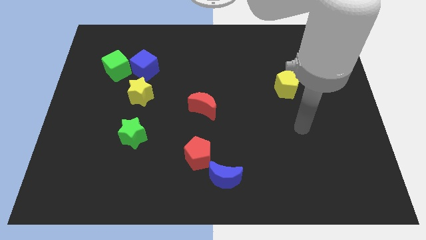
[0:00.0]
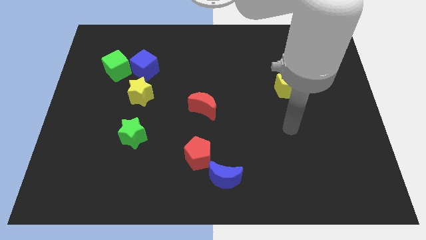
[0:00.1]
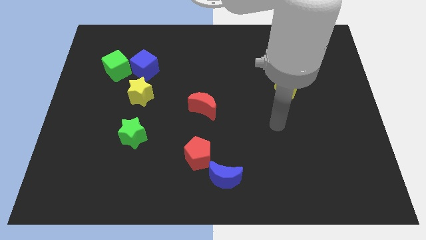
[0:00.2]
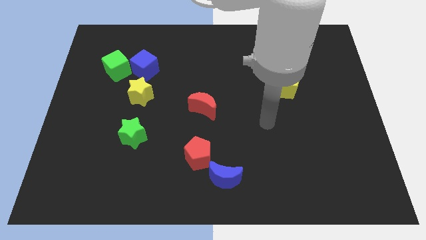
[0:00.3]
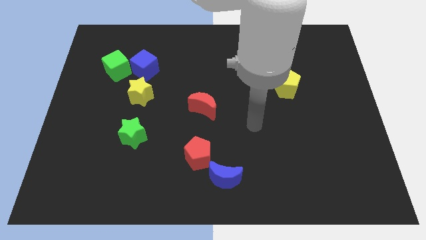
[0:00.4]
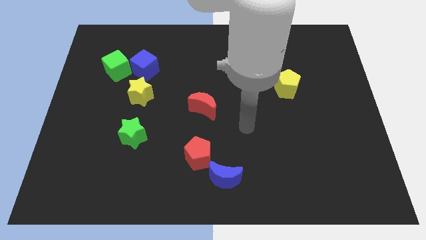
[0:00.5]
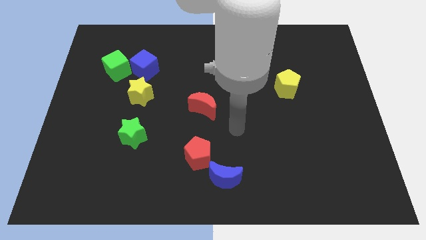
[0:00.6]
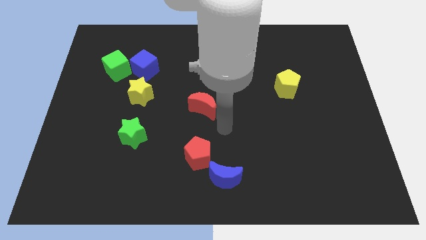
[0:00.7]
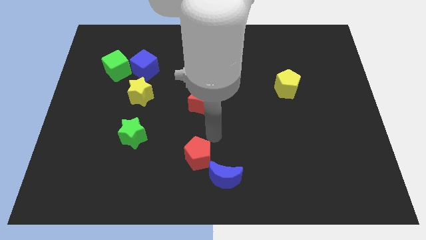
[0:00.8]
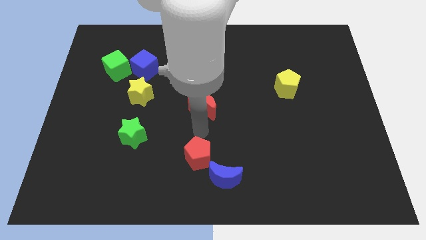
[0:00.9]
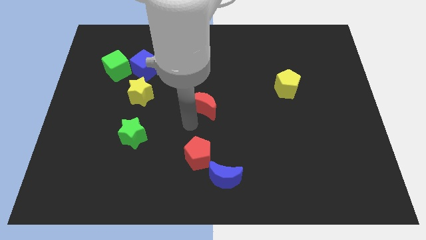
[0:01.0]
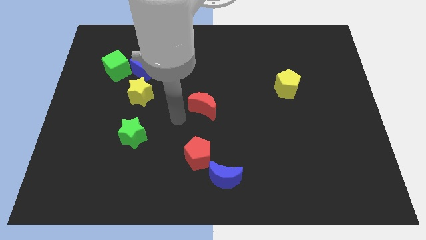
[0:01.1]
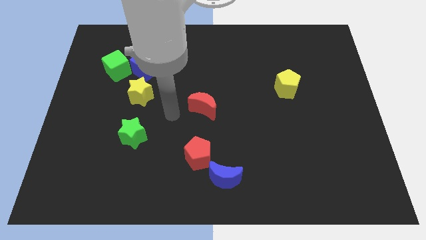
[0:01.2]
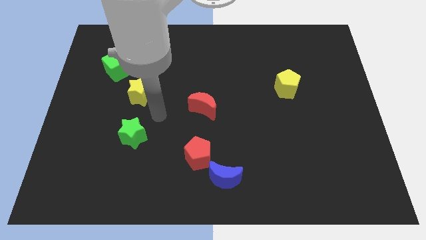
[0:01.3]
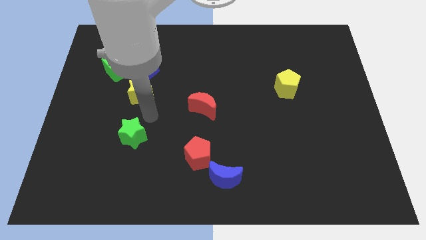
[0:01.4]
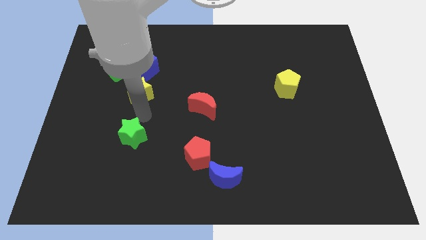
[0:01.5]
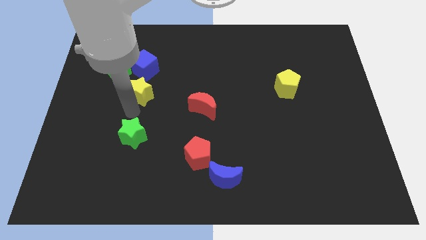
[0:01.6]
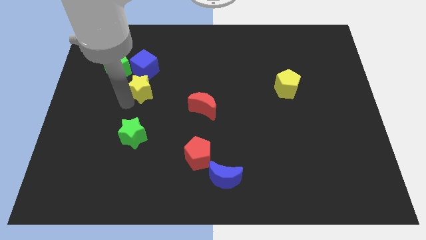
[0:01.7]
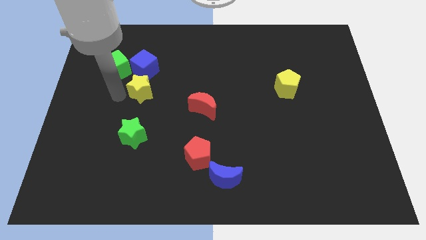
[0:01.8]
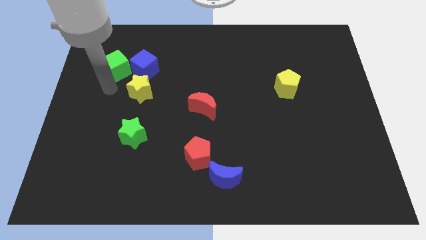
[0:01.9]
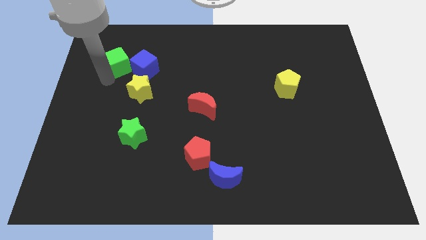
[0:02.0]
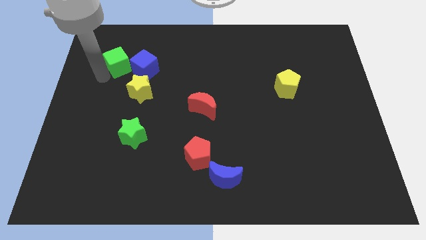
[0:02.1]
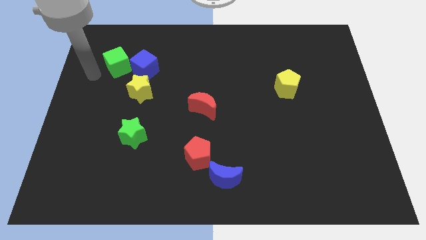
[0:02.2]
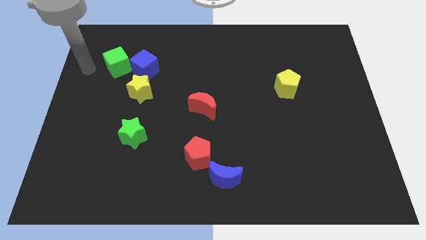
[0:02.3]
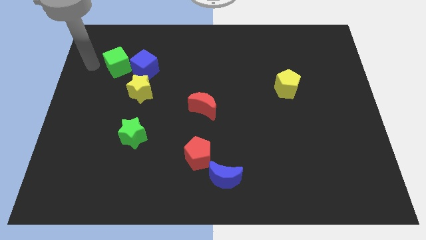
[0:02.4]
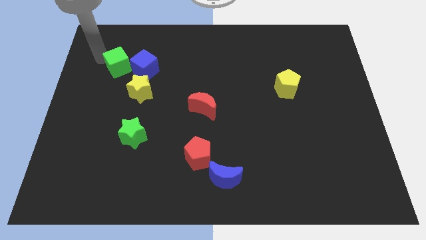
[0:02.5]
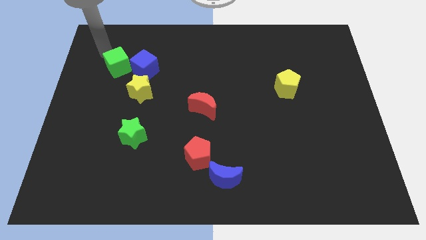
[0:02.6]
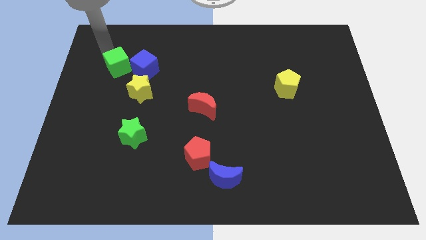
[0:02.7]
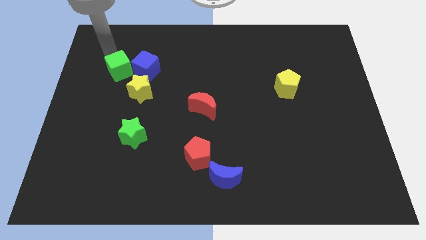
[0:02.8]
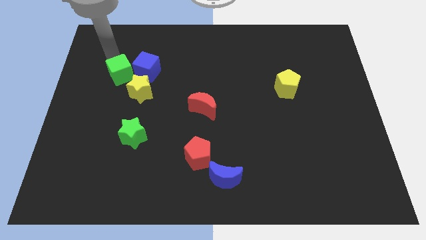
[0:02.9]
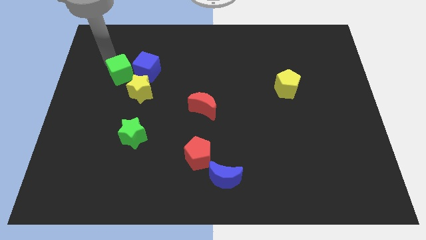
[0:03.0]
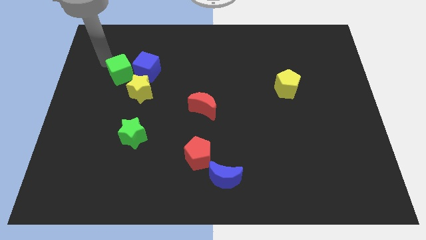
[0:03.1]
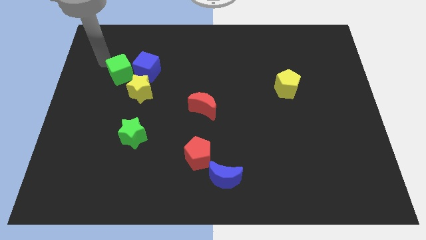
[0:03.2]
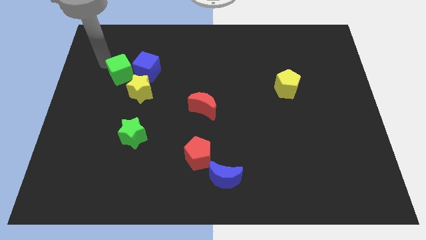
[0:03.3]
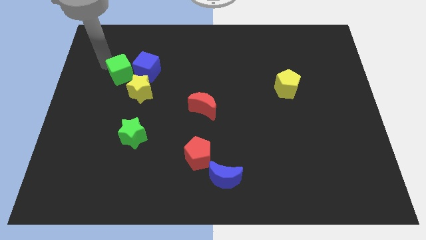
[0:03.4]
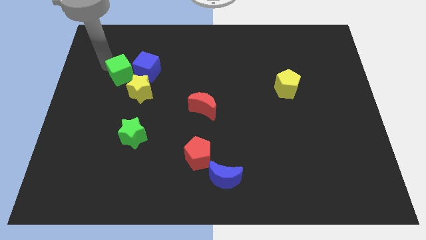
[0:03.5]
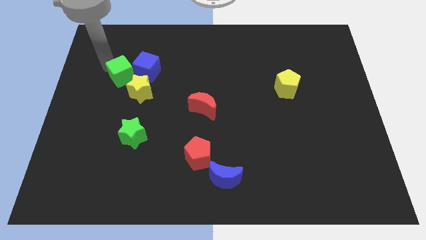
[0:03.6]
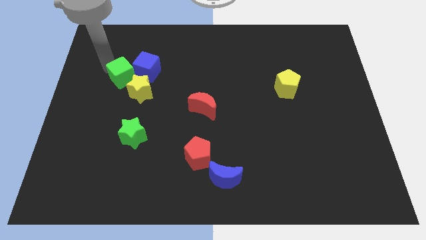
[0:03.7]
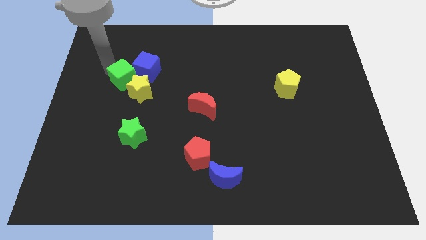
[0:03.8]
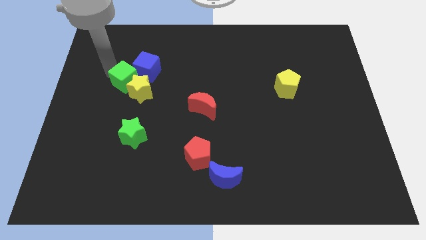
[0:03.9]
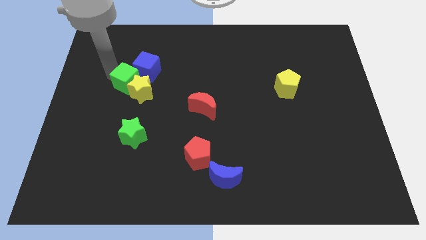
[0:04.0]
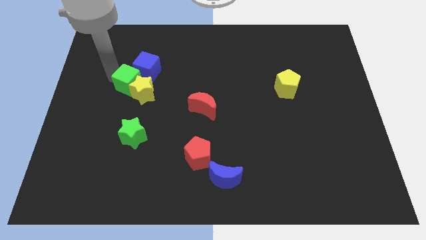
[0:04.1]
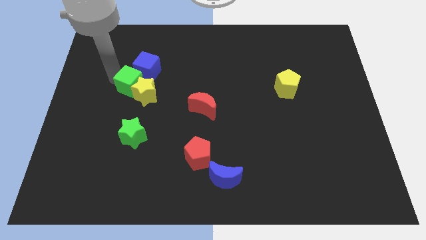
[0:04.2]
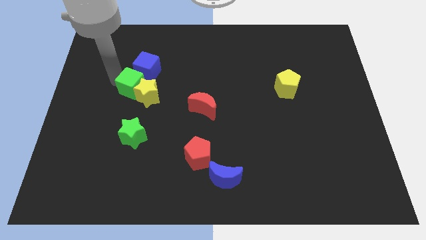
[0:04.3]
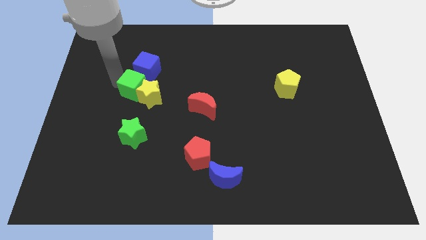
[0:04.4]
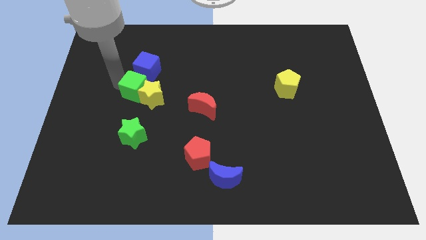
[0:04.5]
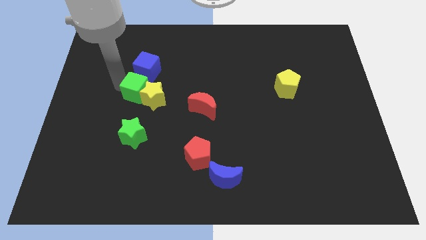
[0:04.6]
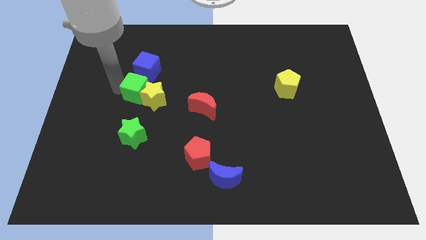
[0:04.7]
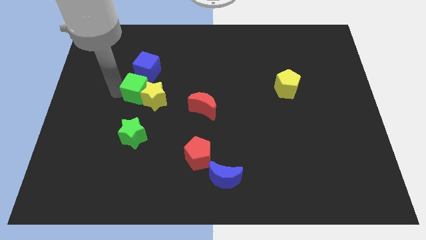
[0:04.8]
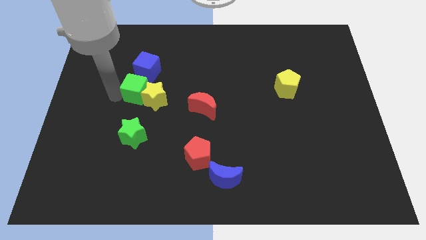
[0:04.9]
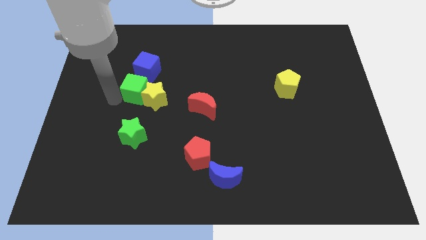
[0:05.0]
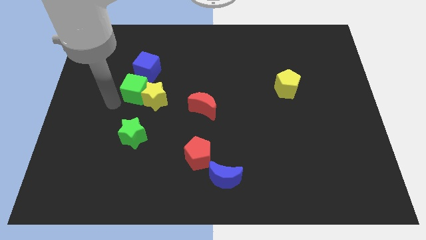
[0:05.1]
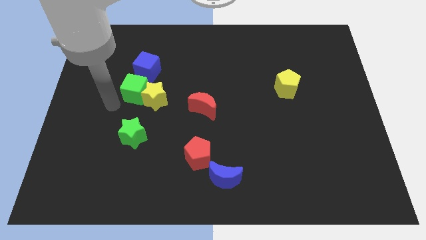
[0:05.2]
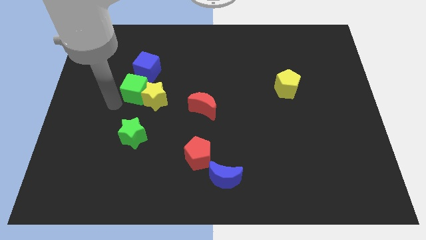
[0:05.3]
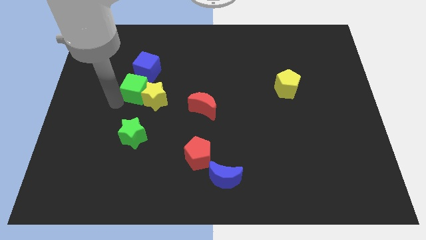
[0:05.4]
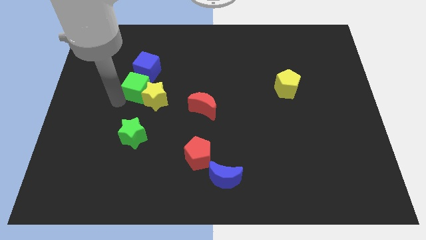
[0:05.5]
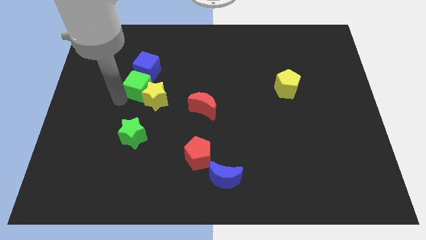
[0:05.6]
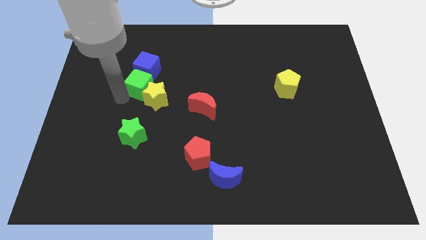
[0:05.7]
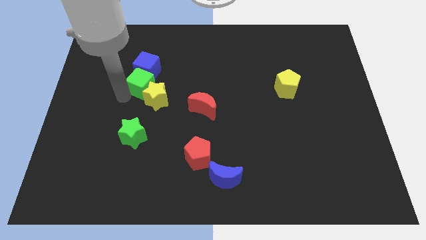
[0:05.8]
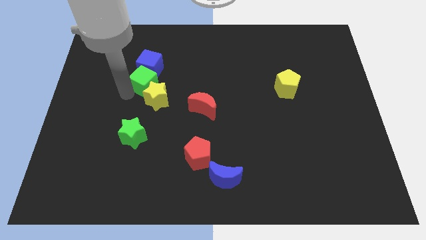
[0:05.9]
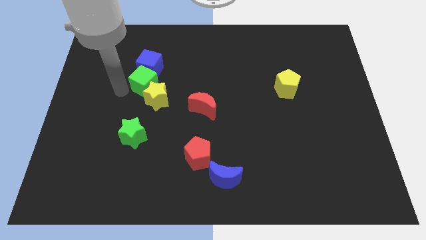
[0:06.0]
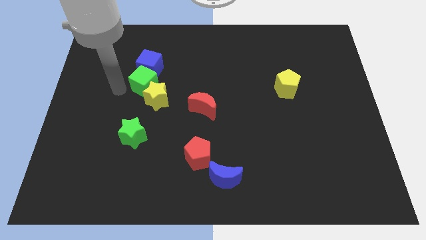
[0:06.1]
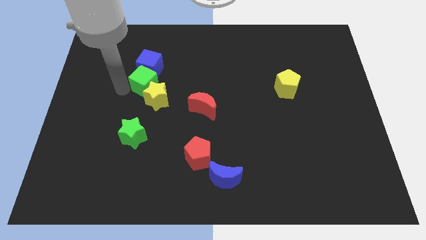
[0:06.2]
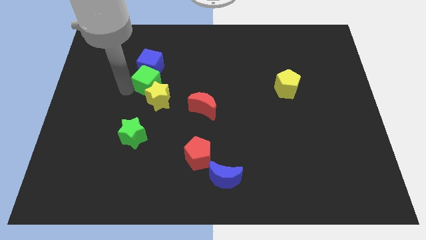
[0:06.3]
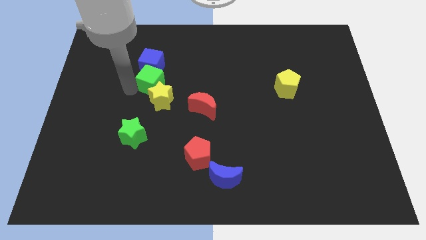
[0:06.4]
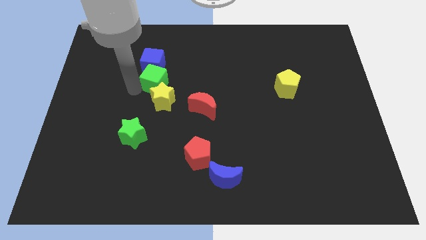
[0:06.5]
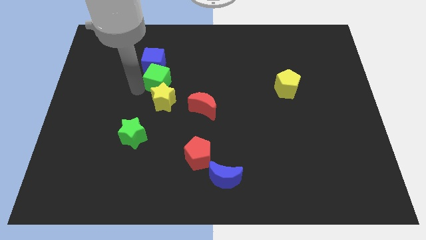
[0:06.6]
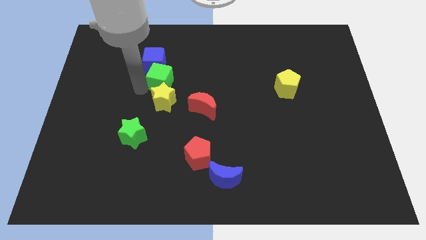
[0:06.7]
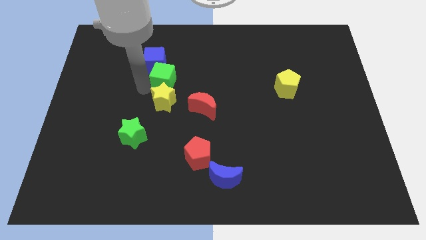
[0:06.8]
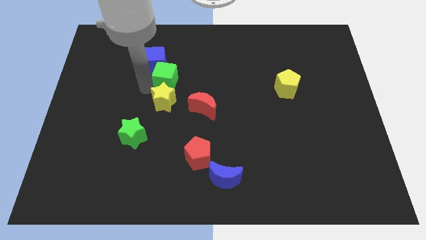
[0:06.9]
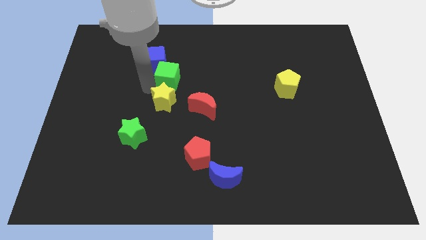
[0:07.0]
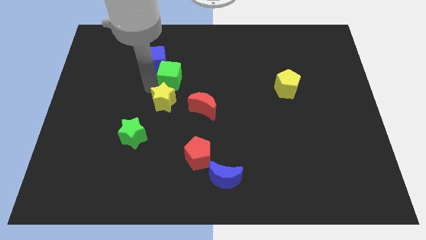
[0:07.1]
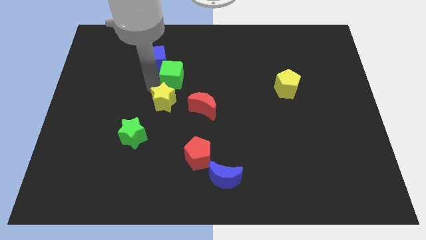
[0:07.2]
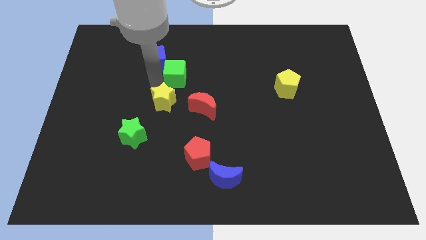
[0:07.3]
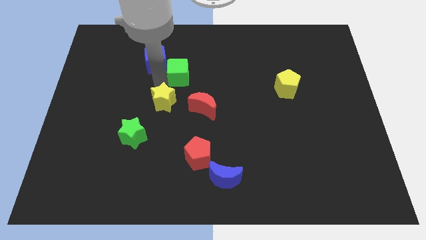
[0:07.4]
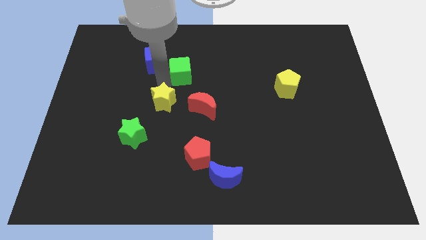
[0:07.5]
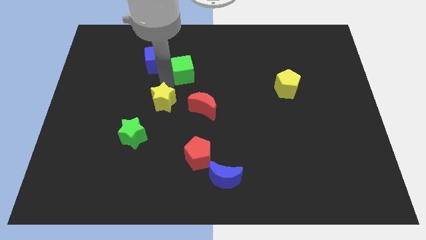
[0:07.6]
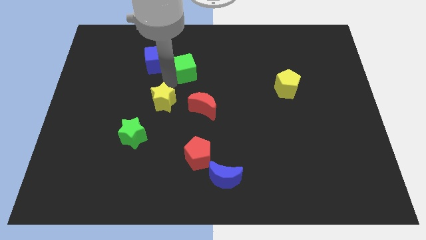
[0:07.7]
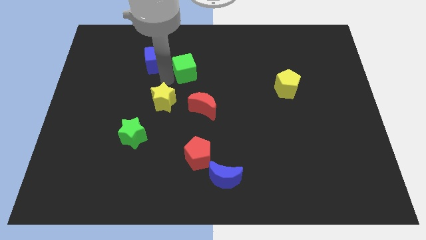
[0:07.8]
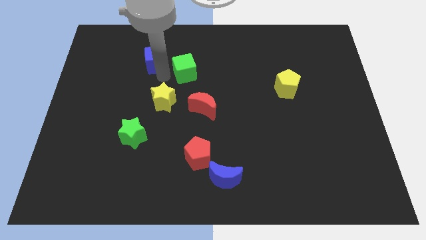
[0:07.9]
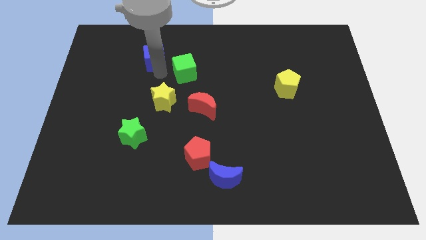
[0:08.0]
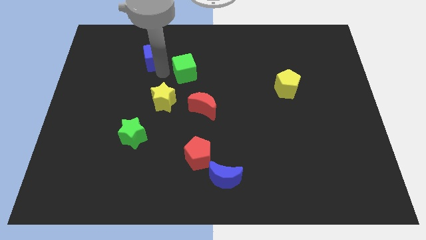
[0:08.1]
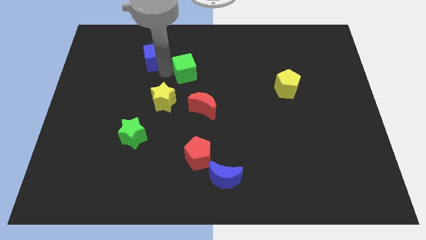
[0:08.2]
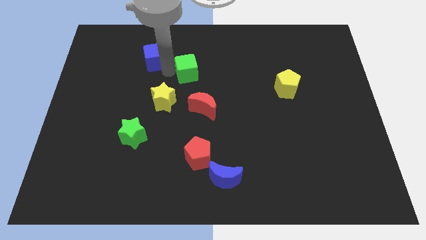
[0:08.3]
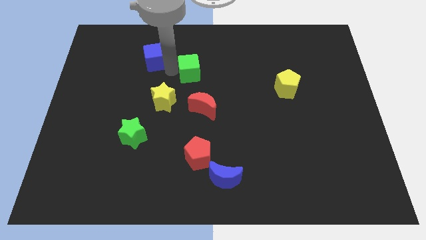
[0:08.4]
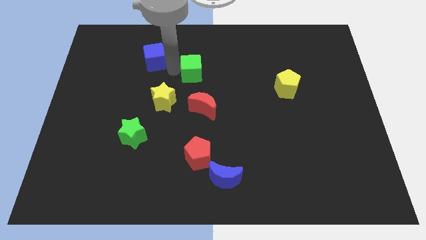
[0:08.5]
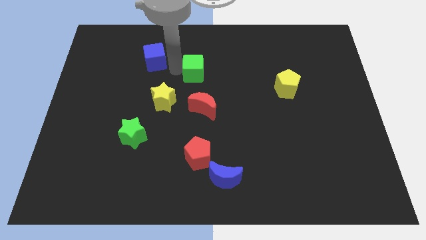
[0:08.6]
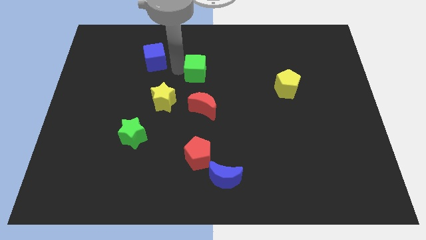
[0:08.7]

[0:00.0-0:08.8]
slide the green cube right
